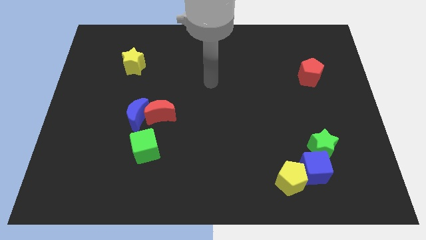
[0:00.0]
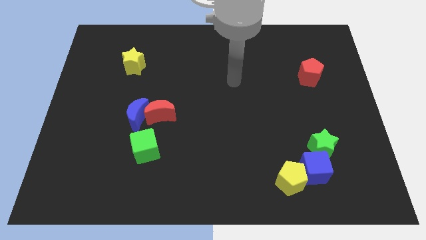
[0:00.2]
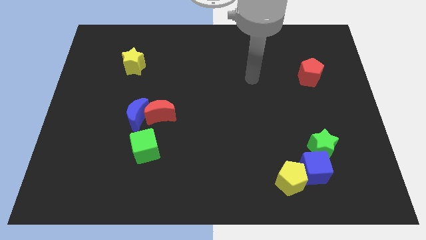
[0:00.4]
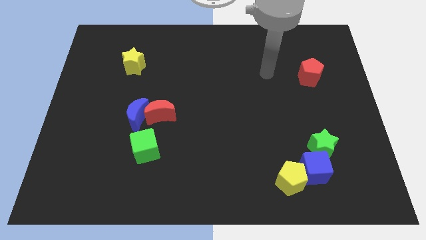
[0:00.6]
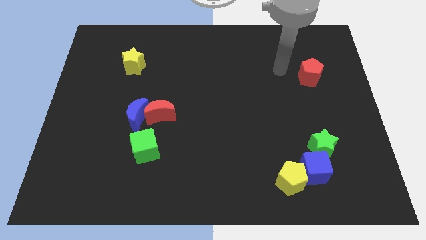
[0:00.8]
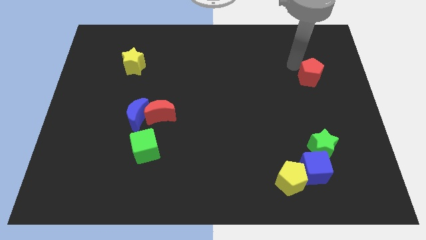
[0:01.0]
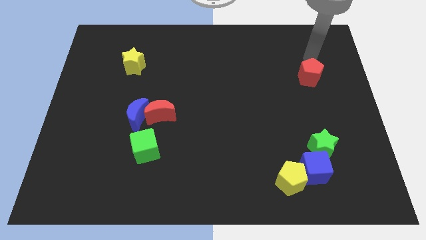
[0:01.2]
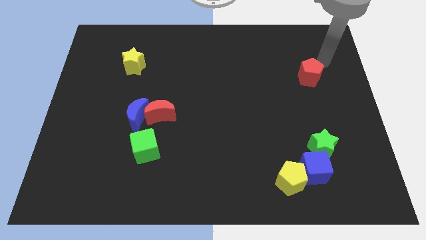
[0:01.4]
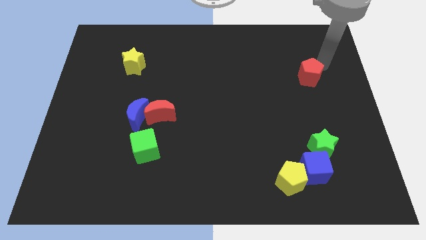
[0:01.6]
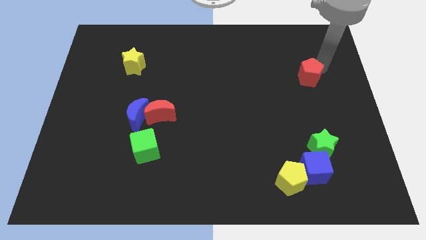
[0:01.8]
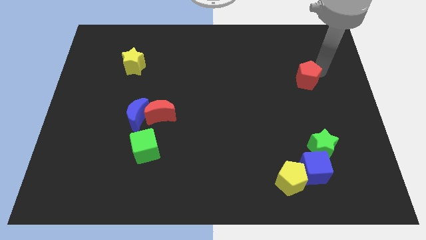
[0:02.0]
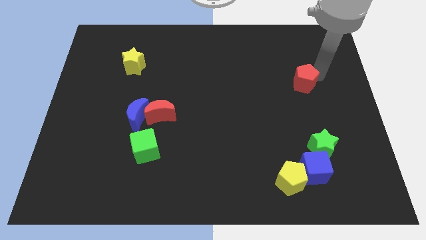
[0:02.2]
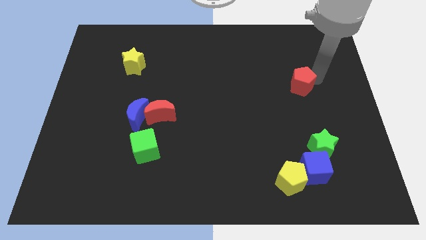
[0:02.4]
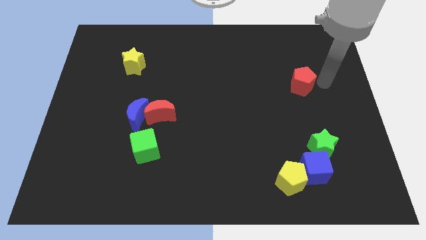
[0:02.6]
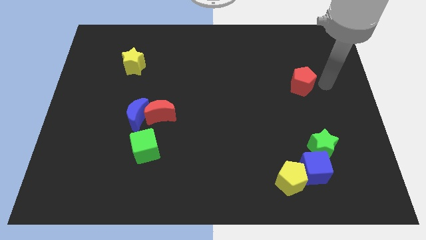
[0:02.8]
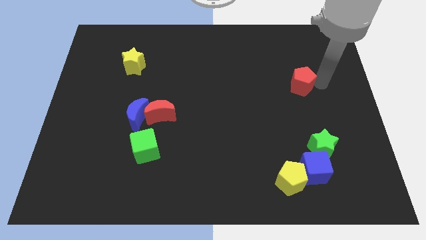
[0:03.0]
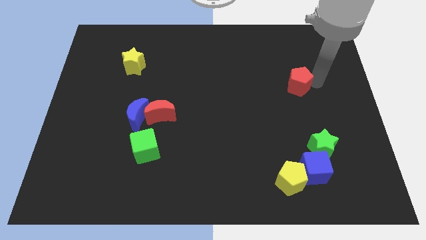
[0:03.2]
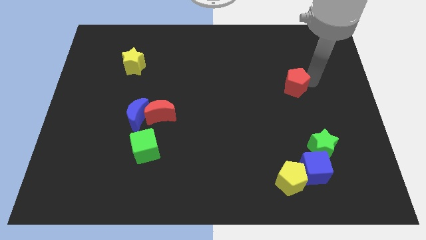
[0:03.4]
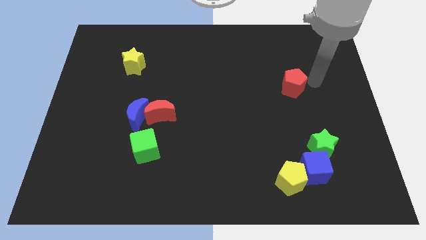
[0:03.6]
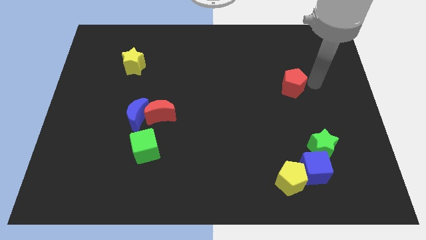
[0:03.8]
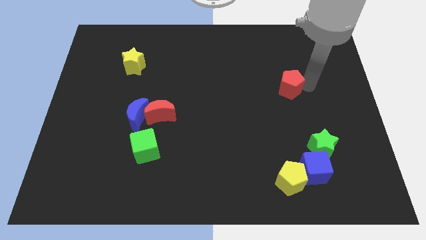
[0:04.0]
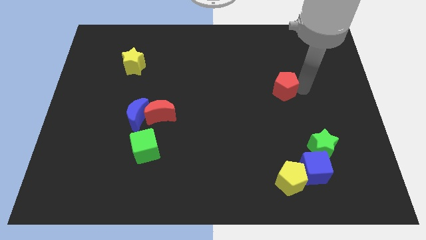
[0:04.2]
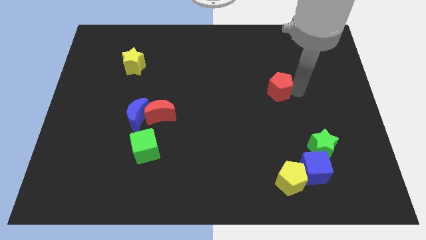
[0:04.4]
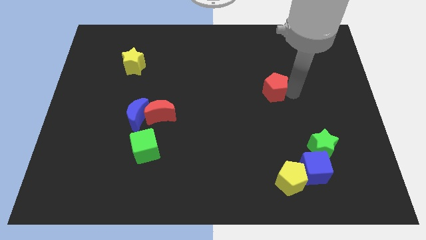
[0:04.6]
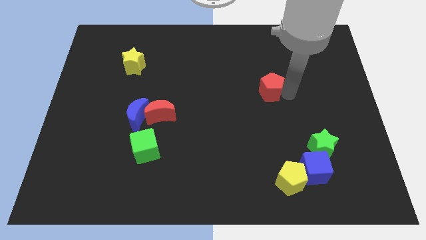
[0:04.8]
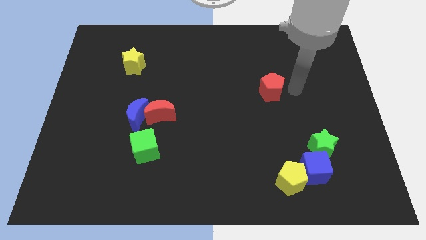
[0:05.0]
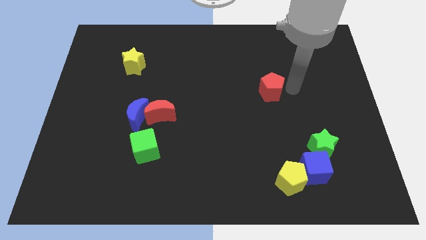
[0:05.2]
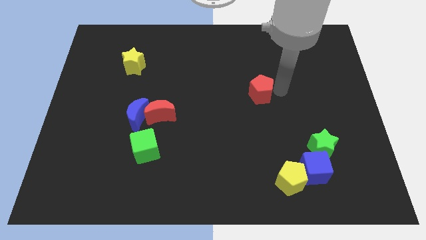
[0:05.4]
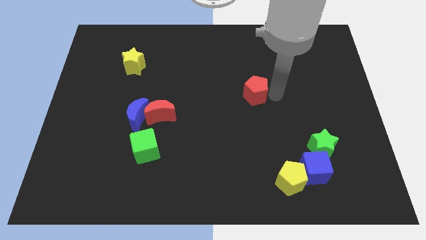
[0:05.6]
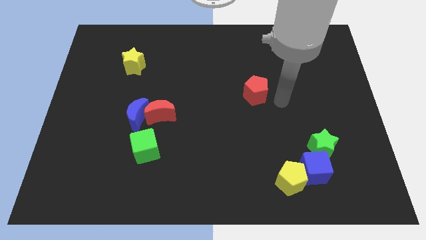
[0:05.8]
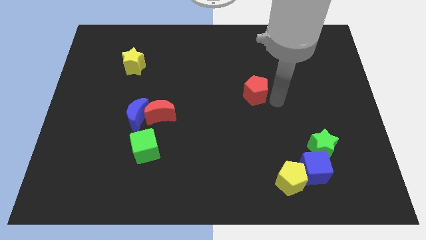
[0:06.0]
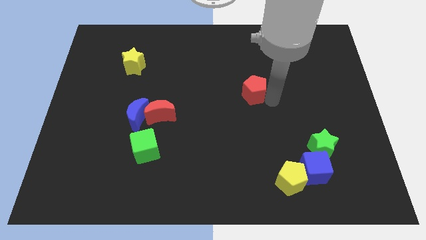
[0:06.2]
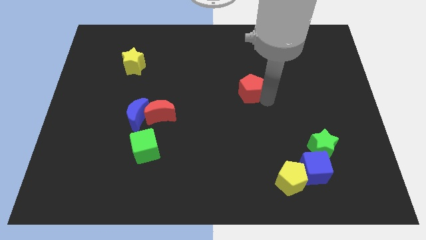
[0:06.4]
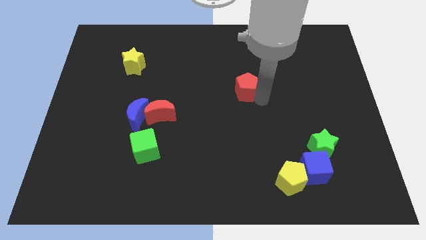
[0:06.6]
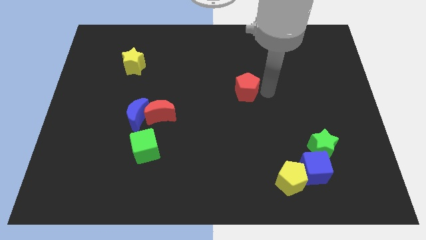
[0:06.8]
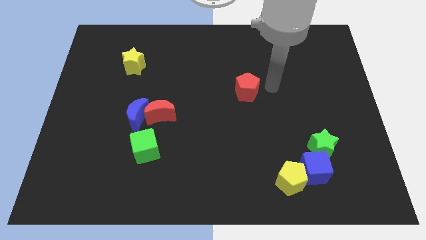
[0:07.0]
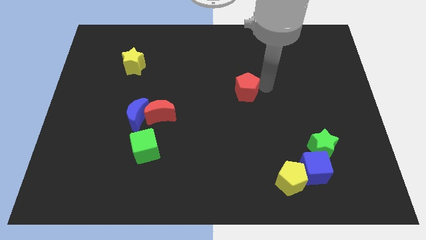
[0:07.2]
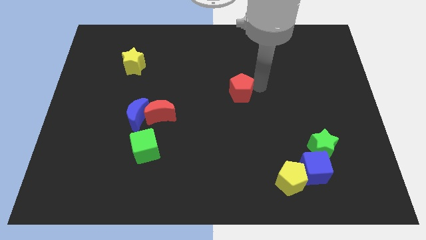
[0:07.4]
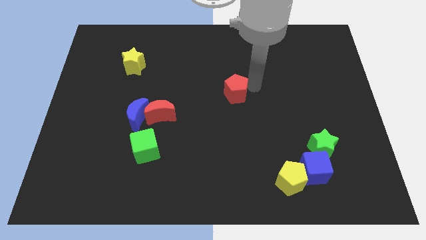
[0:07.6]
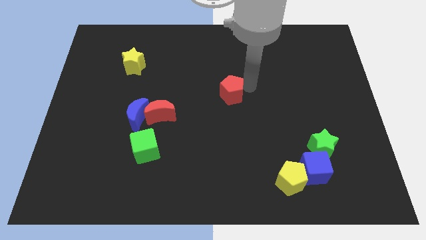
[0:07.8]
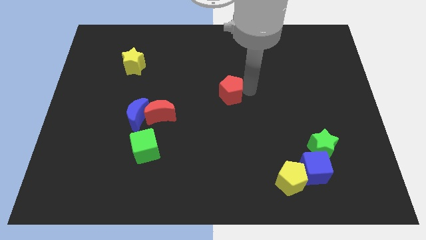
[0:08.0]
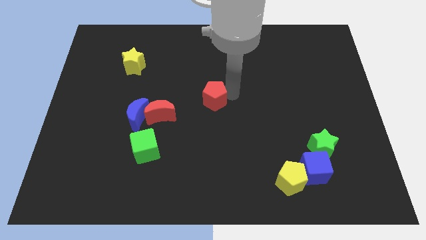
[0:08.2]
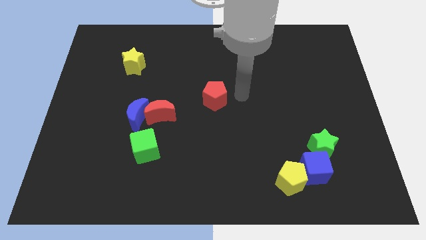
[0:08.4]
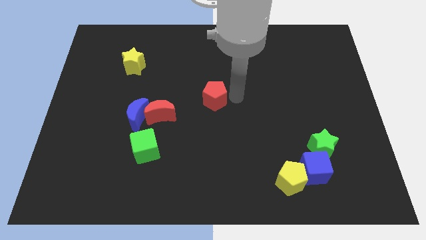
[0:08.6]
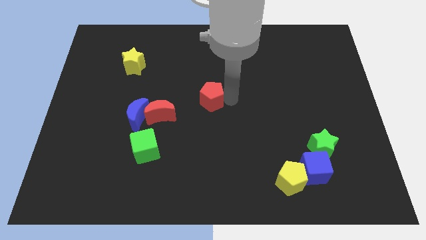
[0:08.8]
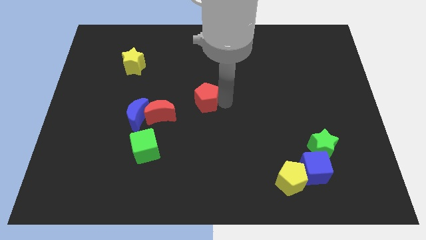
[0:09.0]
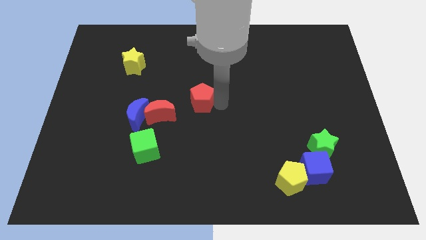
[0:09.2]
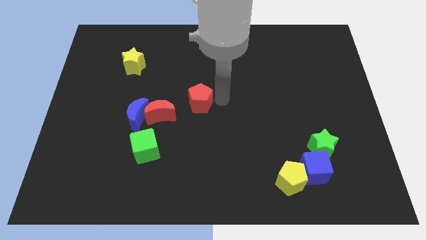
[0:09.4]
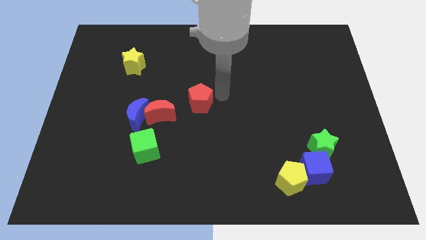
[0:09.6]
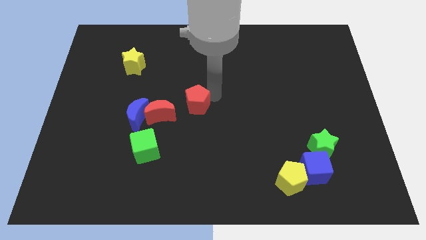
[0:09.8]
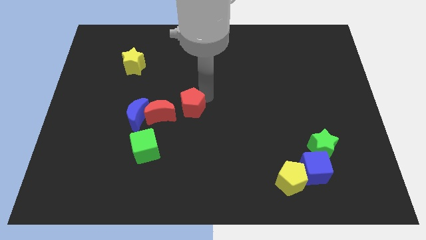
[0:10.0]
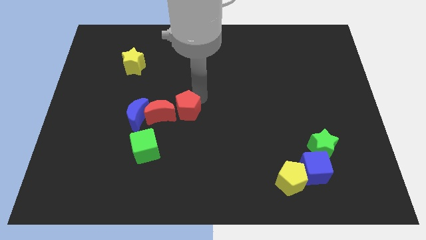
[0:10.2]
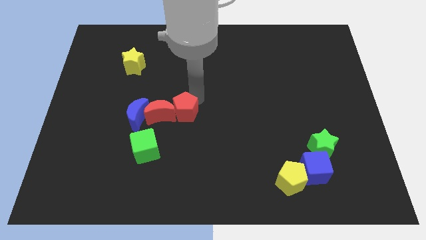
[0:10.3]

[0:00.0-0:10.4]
move the red pentagon to the red moon

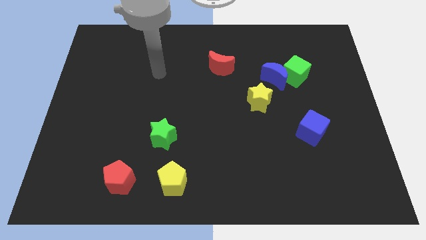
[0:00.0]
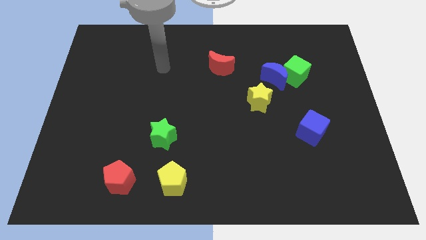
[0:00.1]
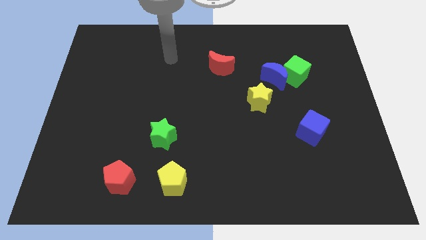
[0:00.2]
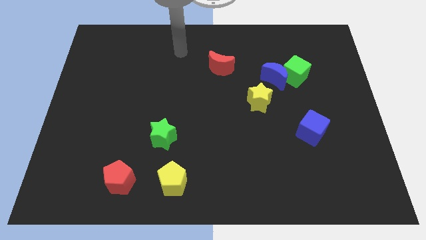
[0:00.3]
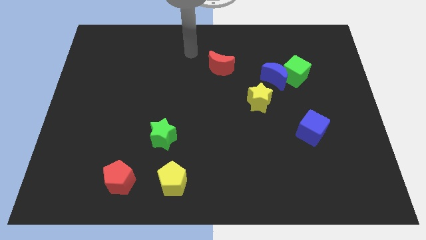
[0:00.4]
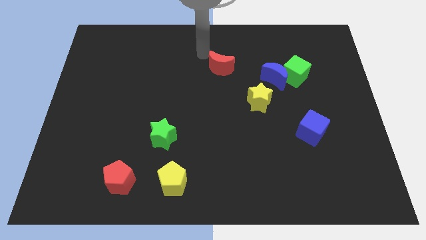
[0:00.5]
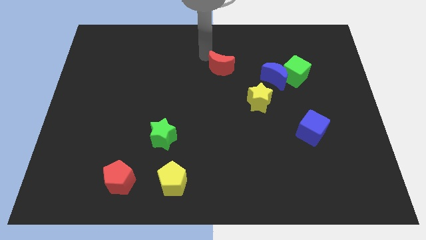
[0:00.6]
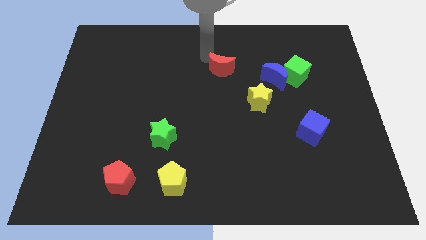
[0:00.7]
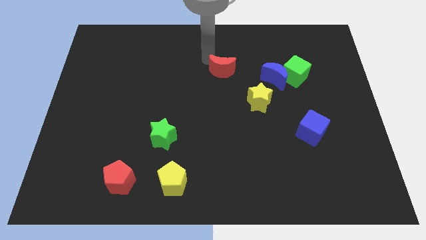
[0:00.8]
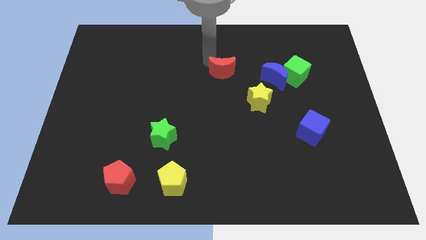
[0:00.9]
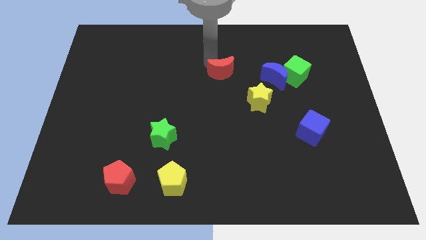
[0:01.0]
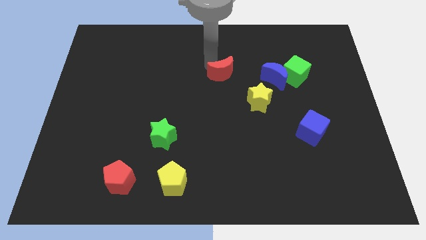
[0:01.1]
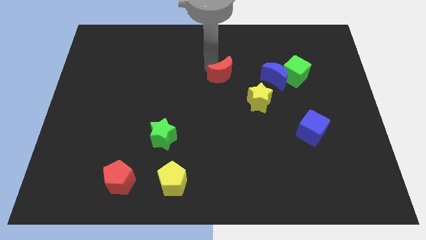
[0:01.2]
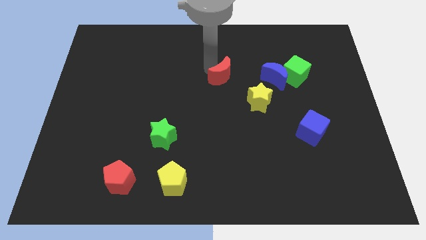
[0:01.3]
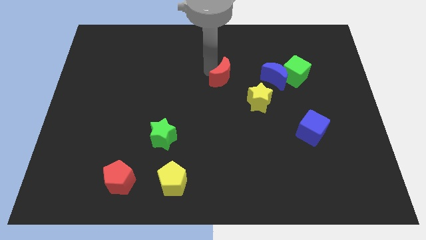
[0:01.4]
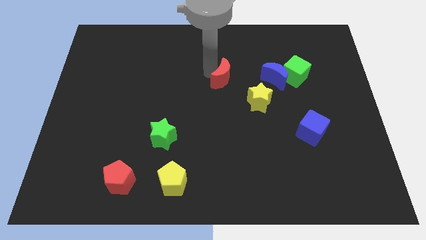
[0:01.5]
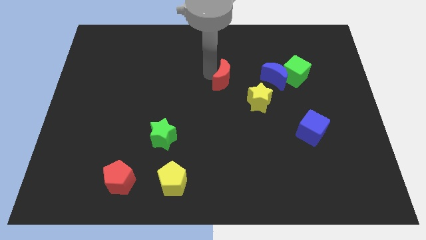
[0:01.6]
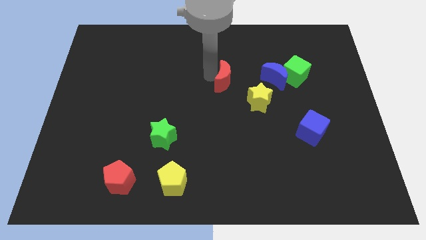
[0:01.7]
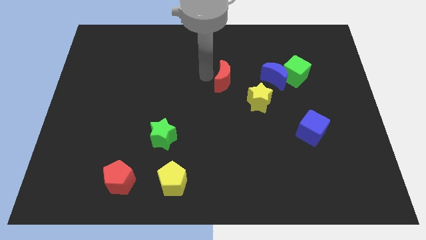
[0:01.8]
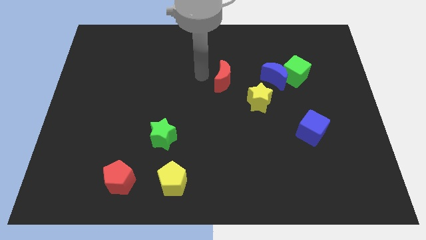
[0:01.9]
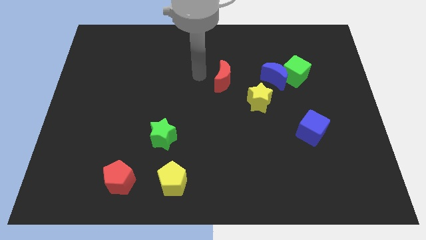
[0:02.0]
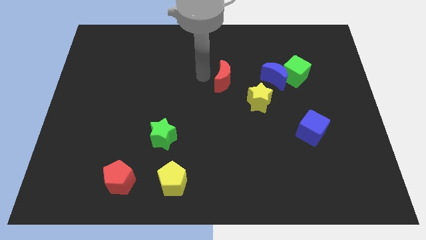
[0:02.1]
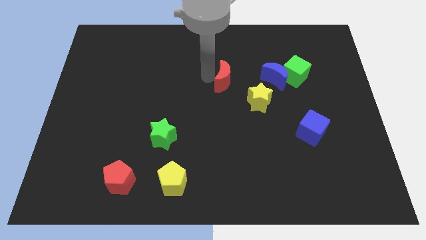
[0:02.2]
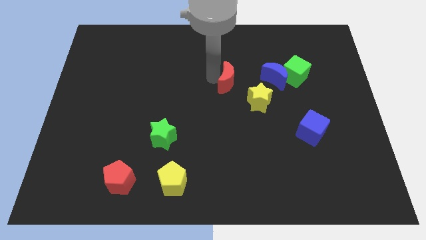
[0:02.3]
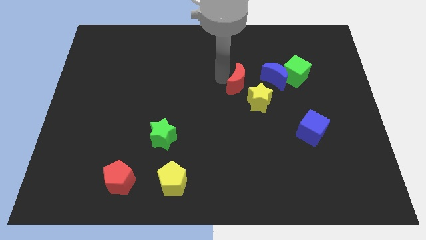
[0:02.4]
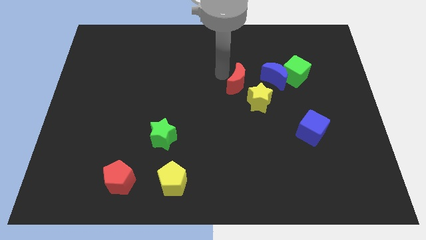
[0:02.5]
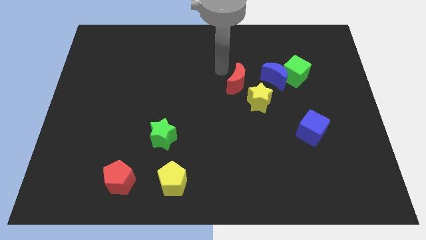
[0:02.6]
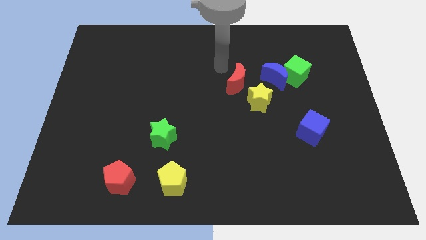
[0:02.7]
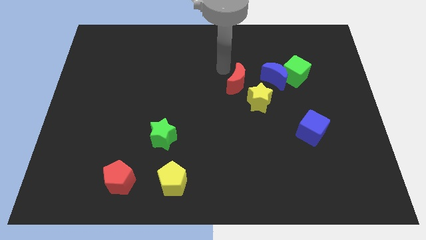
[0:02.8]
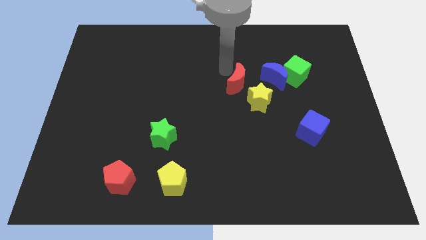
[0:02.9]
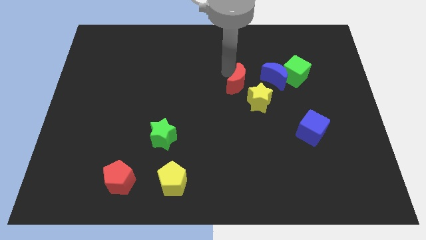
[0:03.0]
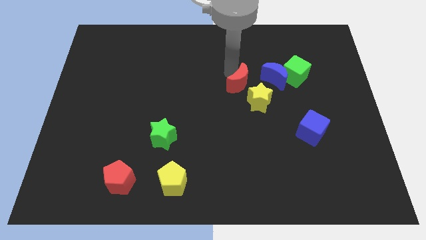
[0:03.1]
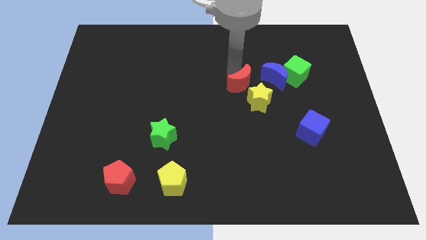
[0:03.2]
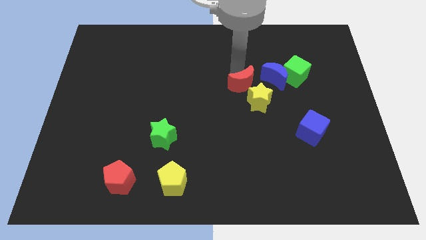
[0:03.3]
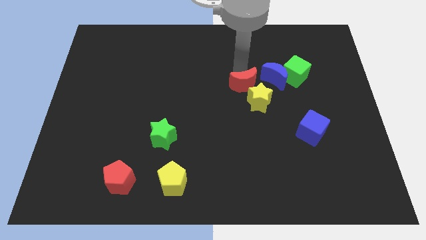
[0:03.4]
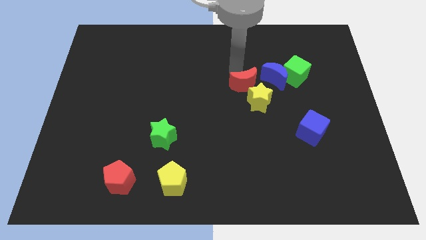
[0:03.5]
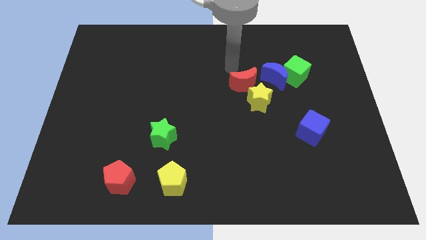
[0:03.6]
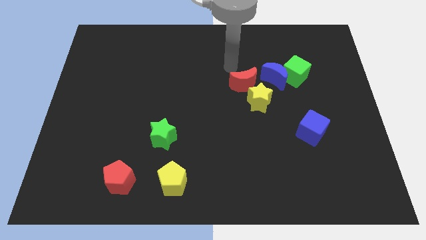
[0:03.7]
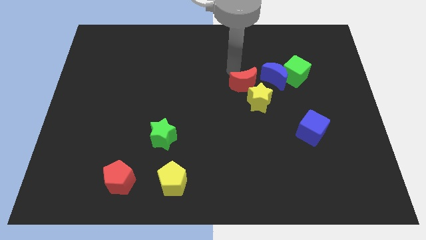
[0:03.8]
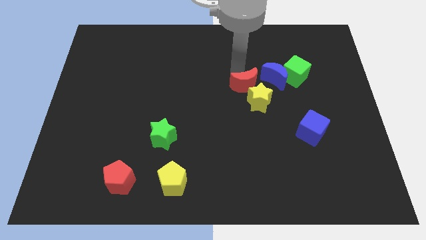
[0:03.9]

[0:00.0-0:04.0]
move the red moon towards the yellow star
